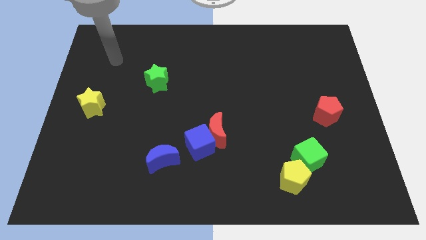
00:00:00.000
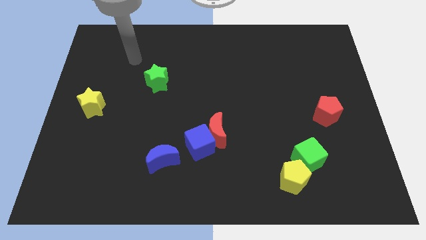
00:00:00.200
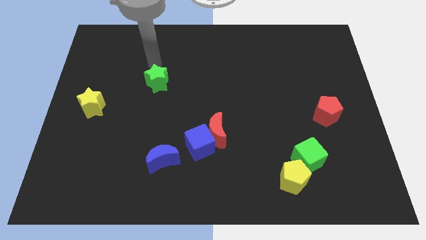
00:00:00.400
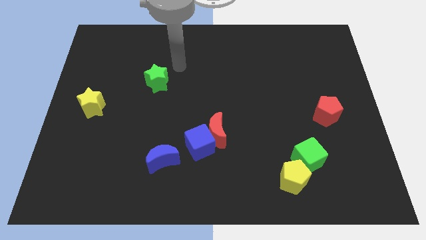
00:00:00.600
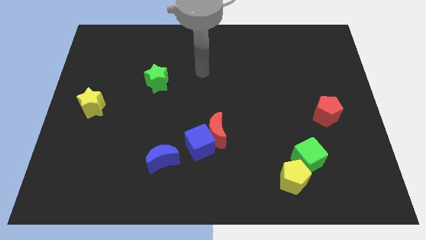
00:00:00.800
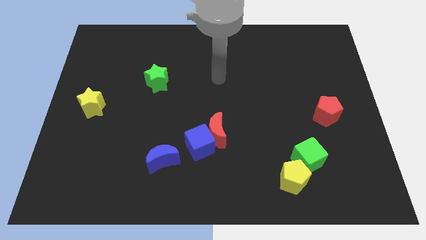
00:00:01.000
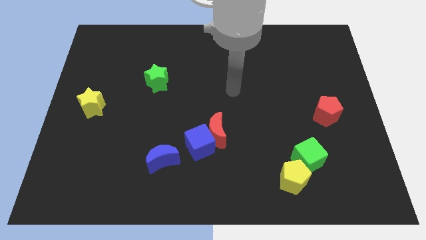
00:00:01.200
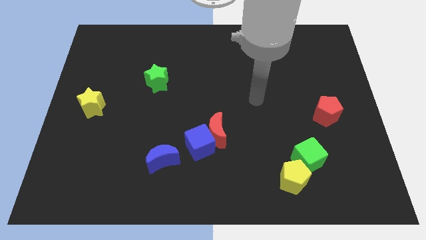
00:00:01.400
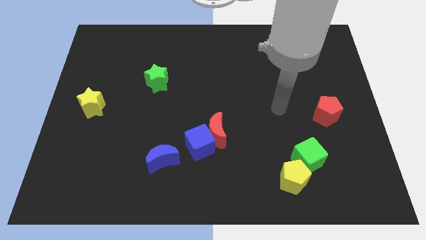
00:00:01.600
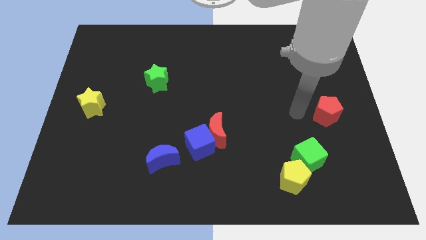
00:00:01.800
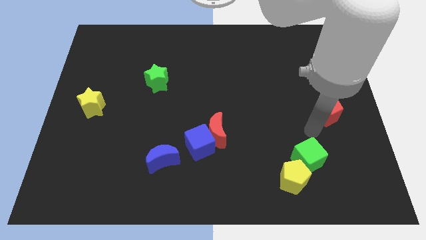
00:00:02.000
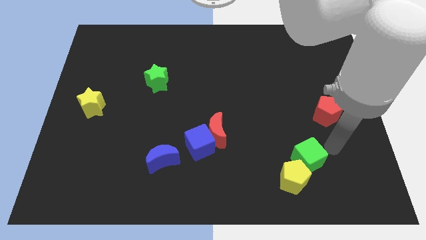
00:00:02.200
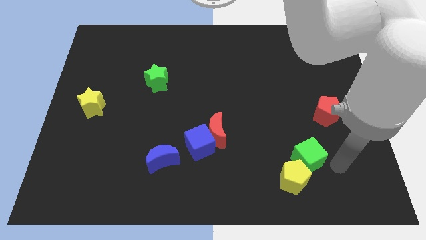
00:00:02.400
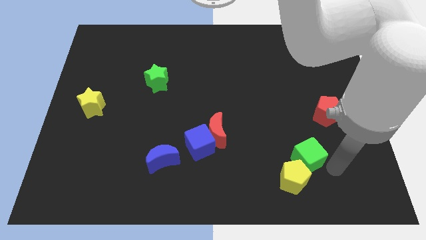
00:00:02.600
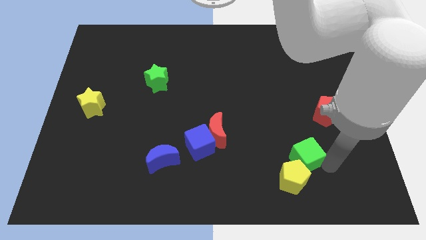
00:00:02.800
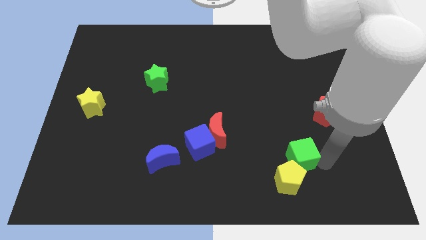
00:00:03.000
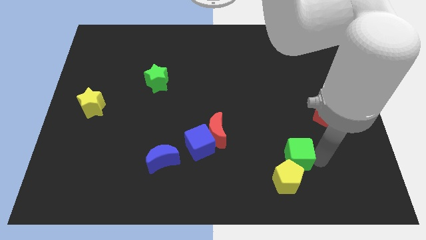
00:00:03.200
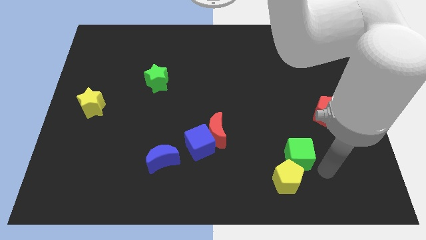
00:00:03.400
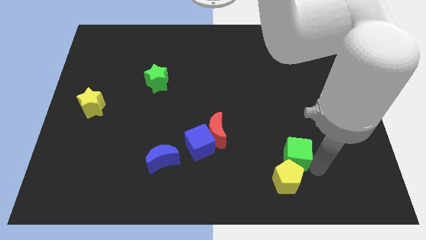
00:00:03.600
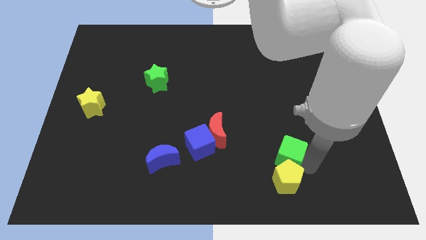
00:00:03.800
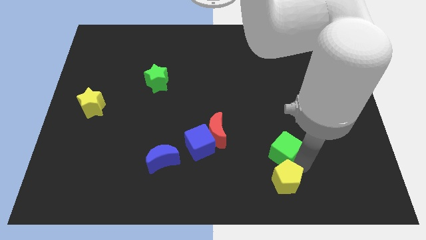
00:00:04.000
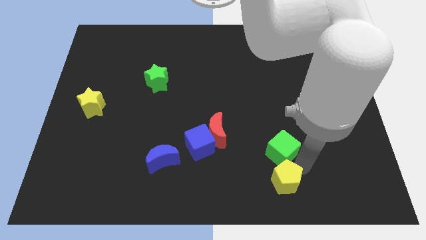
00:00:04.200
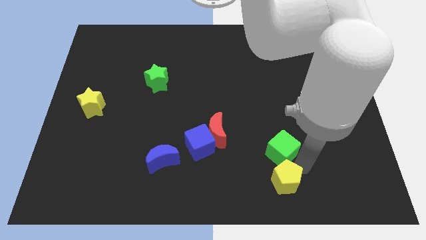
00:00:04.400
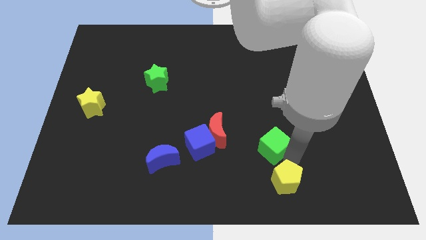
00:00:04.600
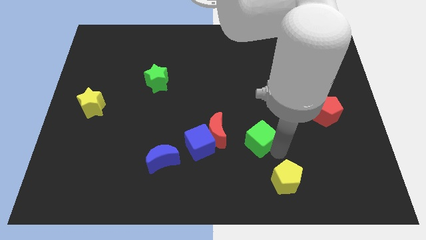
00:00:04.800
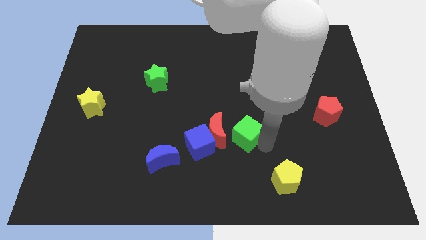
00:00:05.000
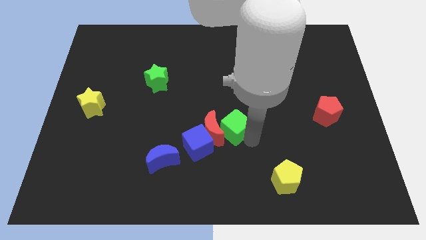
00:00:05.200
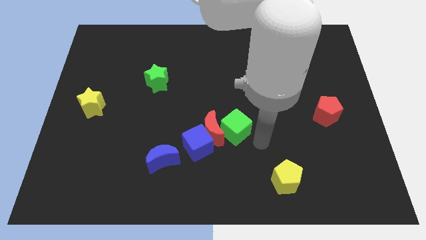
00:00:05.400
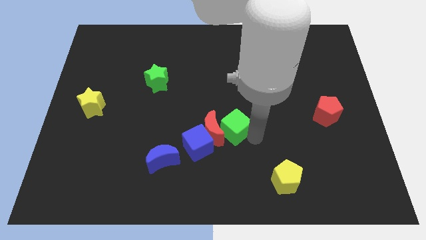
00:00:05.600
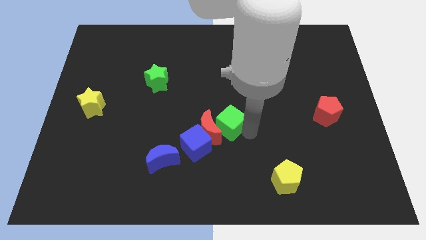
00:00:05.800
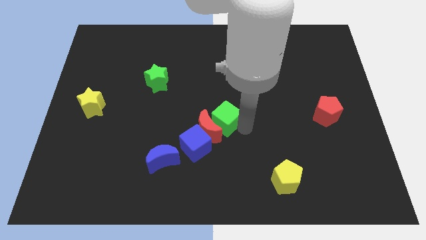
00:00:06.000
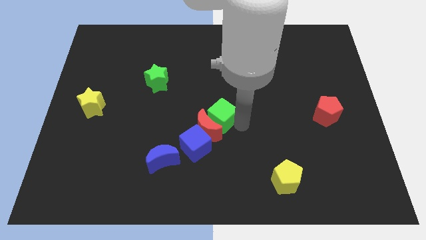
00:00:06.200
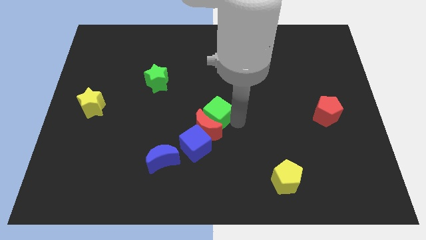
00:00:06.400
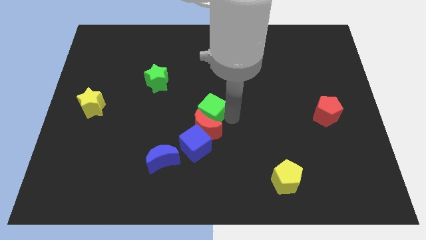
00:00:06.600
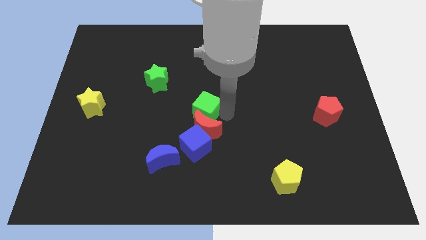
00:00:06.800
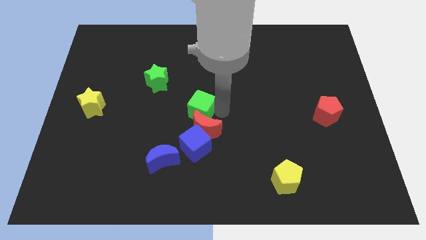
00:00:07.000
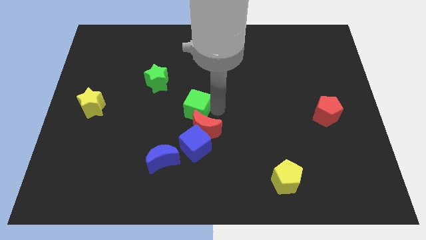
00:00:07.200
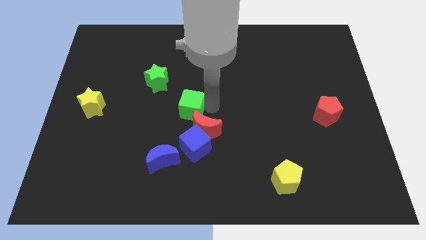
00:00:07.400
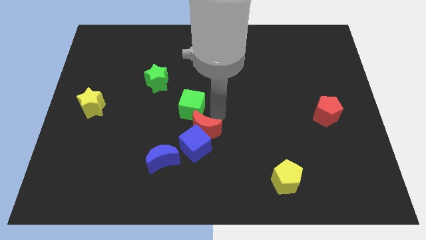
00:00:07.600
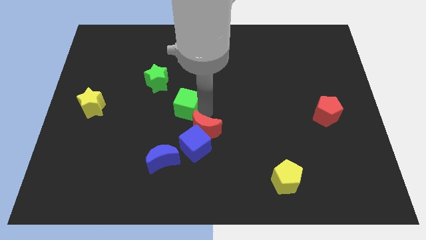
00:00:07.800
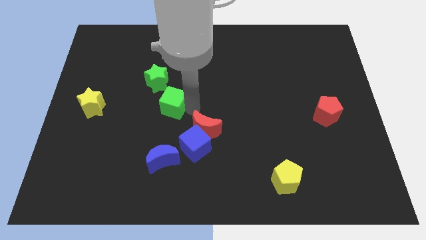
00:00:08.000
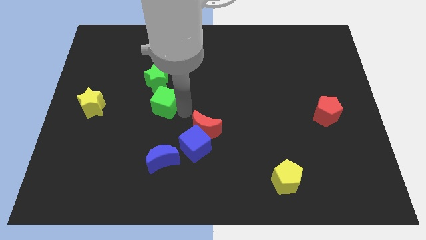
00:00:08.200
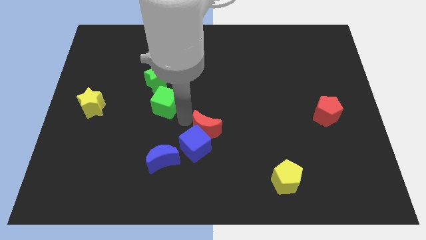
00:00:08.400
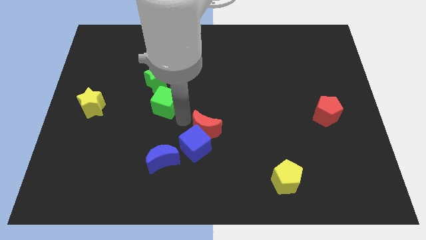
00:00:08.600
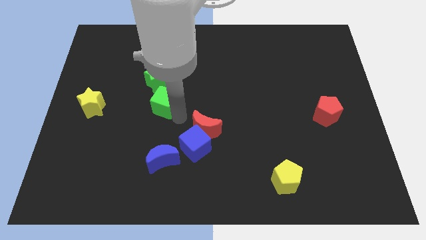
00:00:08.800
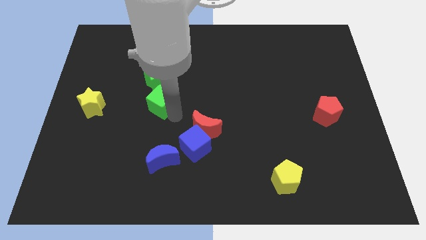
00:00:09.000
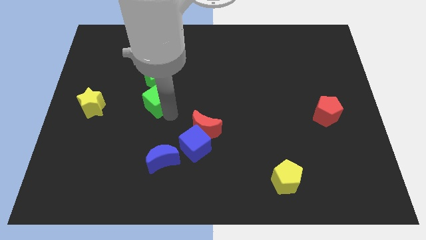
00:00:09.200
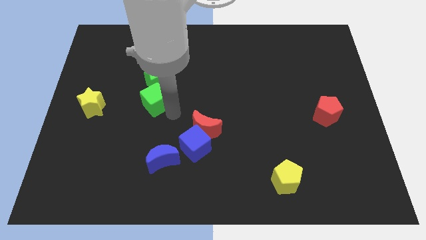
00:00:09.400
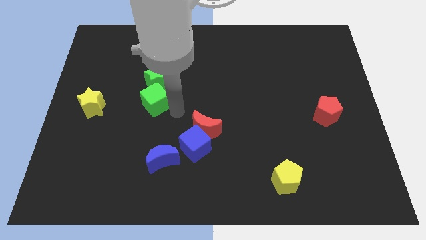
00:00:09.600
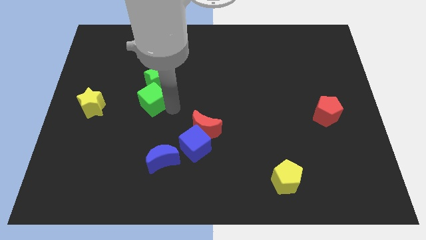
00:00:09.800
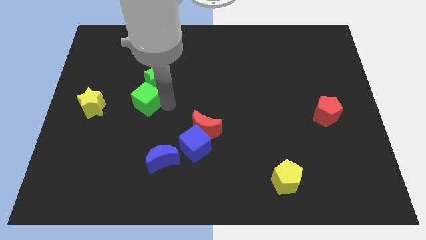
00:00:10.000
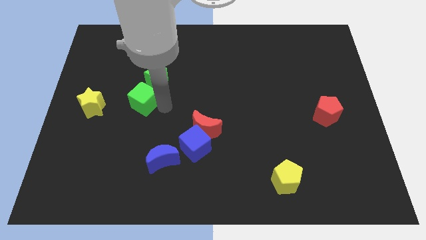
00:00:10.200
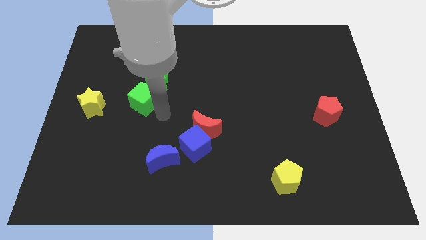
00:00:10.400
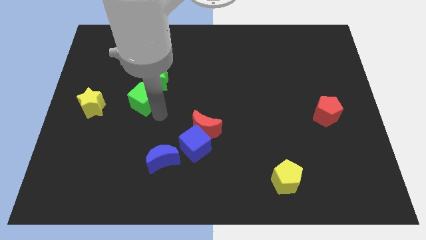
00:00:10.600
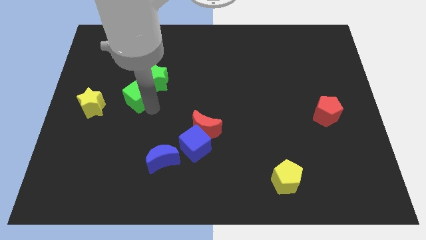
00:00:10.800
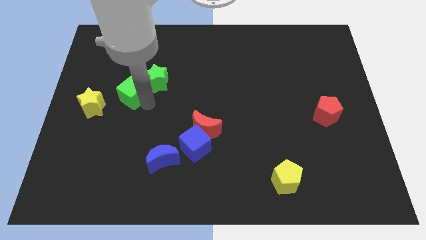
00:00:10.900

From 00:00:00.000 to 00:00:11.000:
put the green cube to the top right of the yellow star

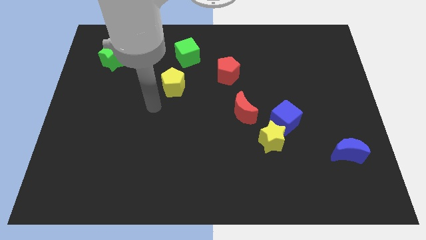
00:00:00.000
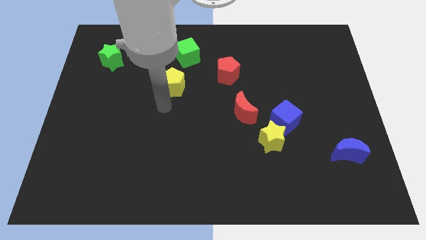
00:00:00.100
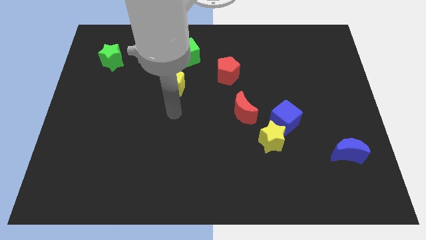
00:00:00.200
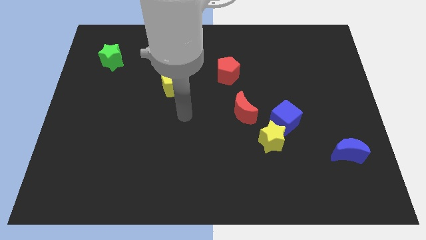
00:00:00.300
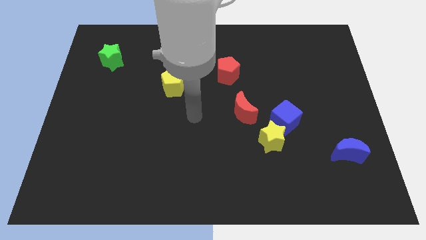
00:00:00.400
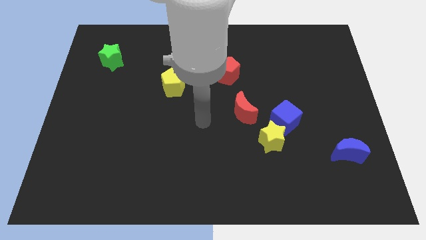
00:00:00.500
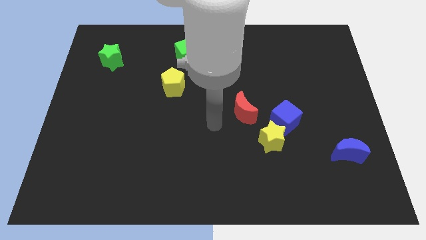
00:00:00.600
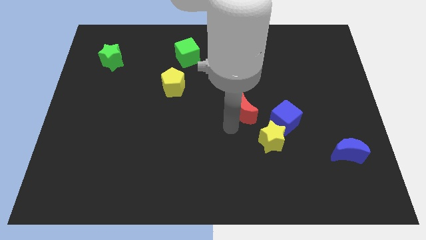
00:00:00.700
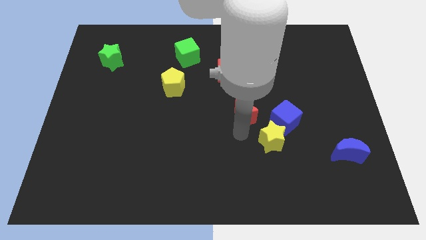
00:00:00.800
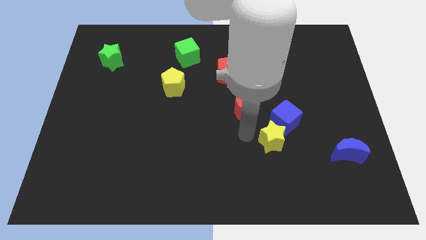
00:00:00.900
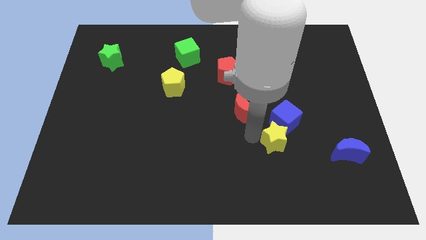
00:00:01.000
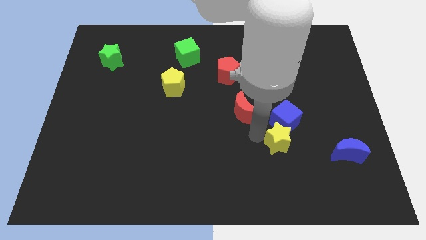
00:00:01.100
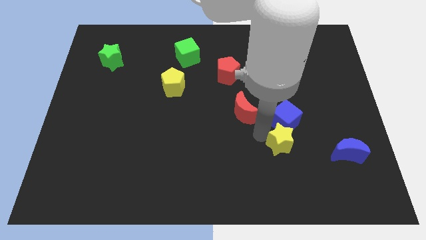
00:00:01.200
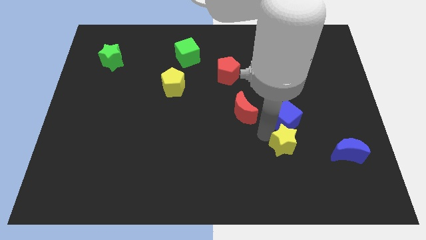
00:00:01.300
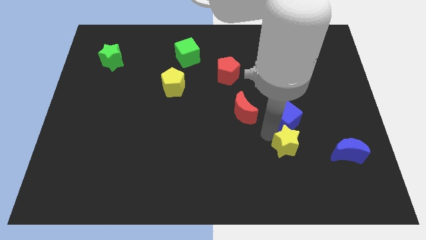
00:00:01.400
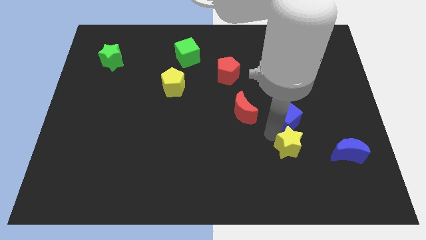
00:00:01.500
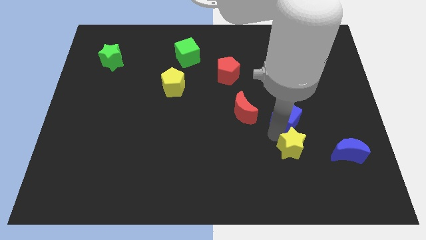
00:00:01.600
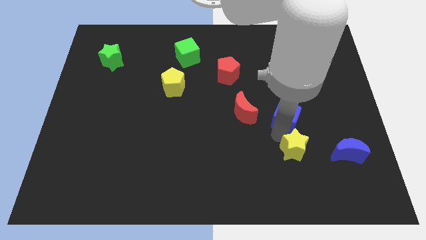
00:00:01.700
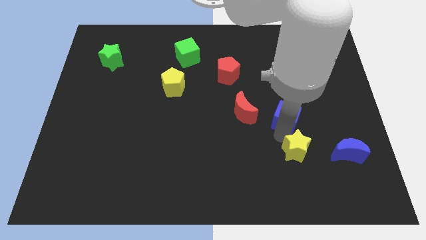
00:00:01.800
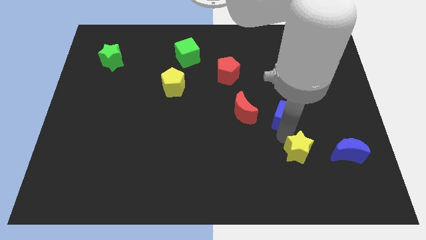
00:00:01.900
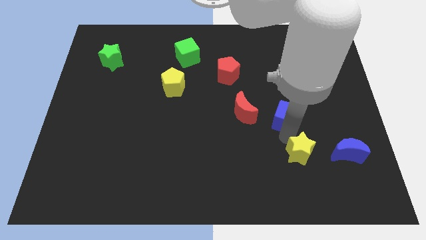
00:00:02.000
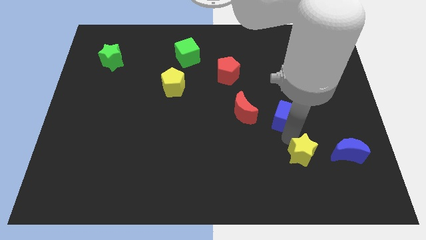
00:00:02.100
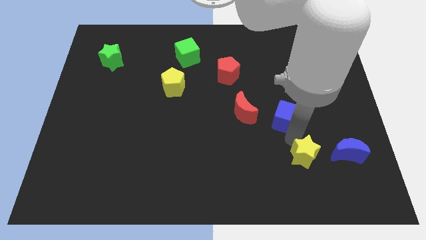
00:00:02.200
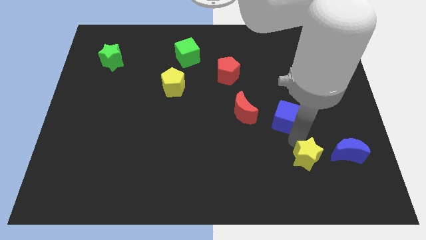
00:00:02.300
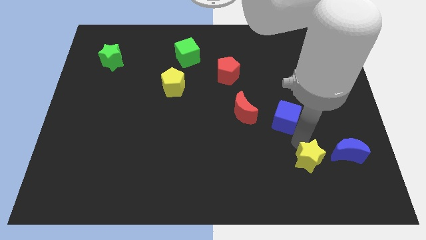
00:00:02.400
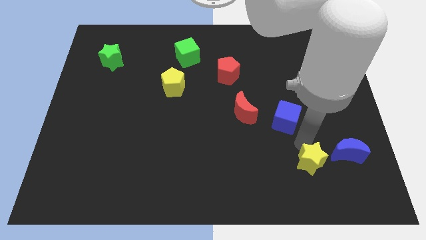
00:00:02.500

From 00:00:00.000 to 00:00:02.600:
move the yellow star to the bottom left of the blue moon
